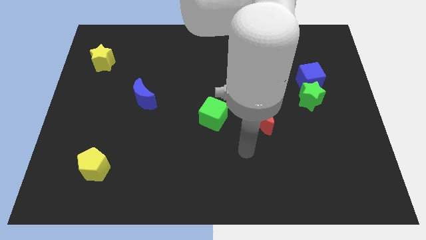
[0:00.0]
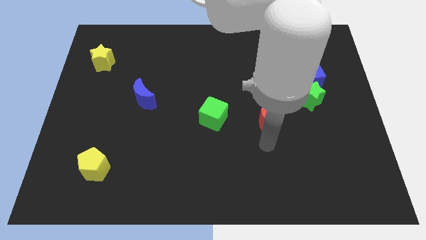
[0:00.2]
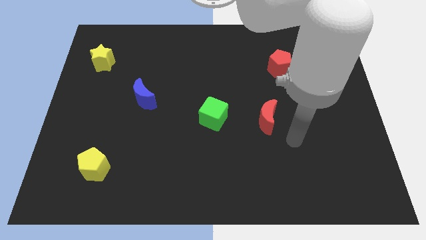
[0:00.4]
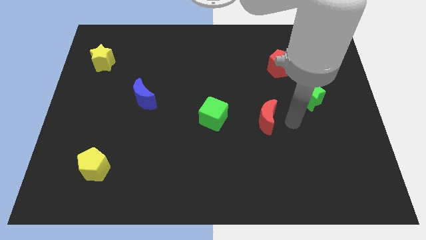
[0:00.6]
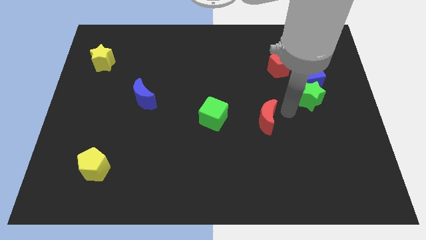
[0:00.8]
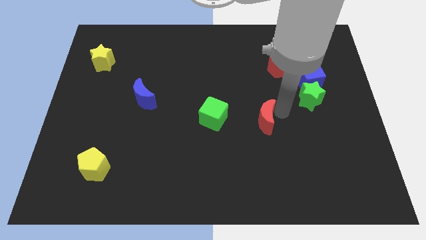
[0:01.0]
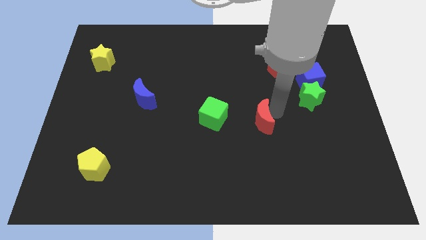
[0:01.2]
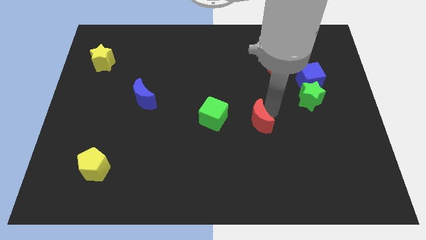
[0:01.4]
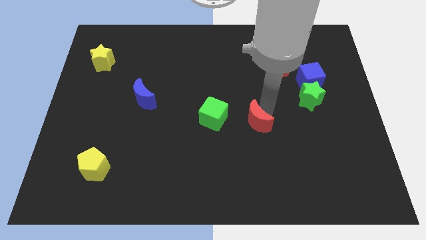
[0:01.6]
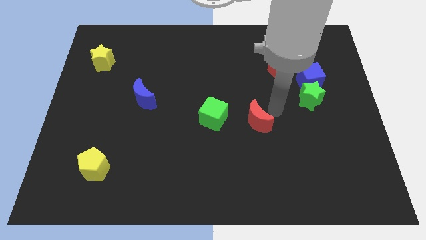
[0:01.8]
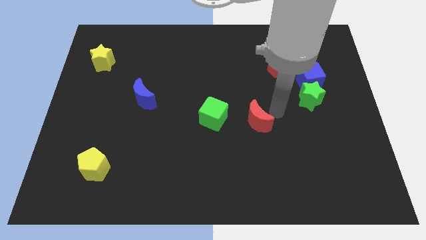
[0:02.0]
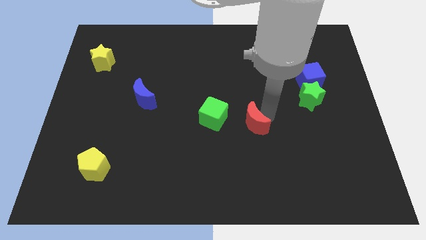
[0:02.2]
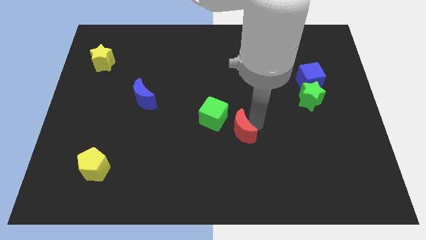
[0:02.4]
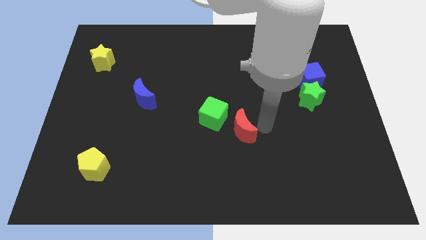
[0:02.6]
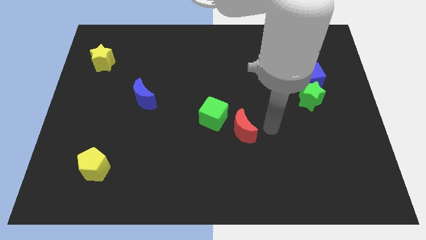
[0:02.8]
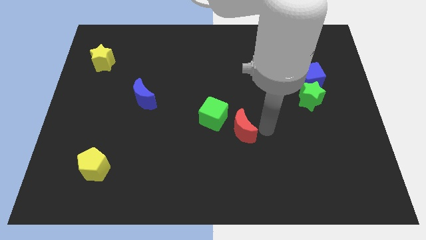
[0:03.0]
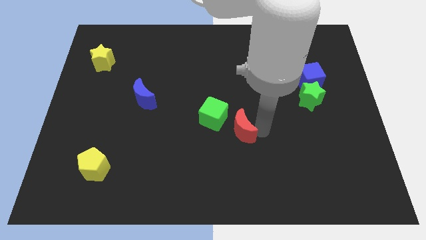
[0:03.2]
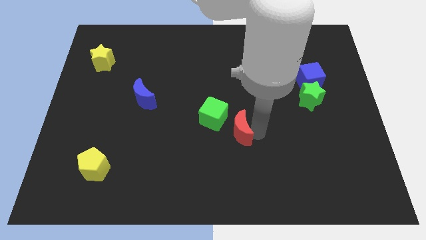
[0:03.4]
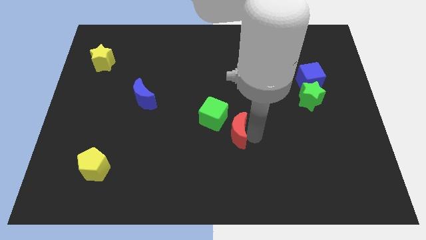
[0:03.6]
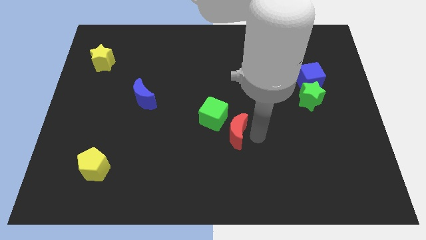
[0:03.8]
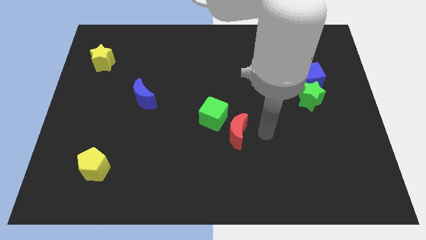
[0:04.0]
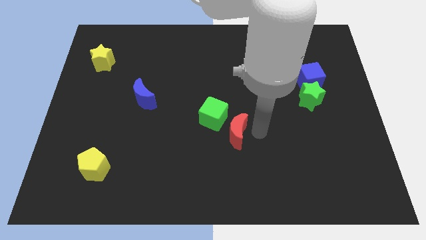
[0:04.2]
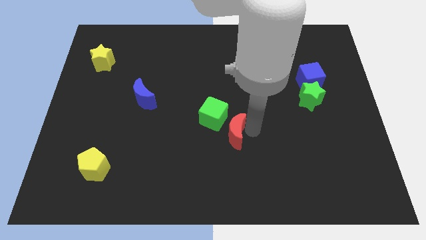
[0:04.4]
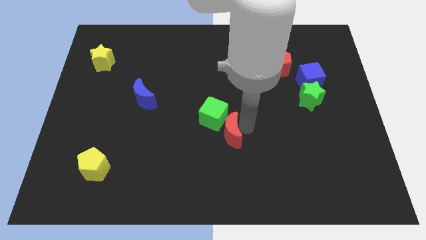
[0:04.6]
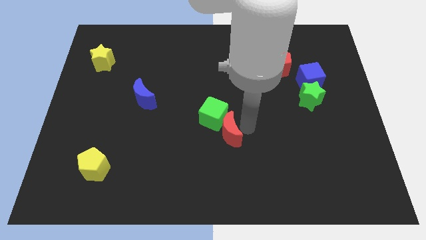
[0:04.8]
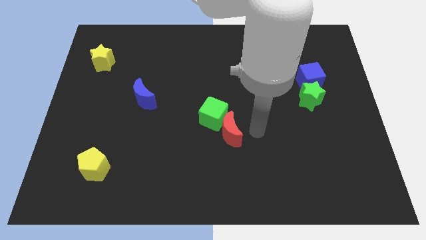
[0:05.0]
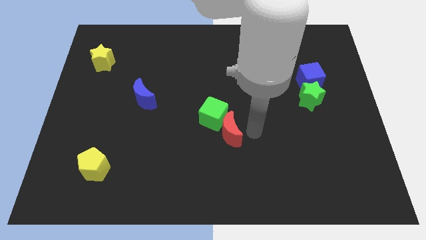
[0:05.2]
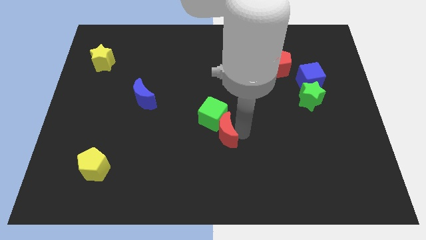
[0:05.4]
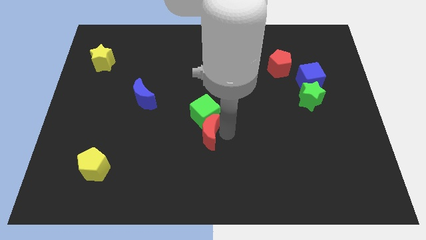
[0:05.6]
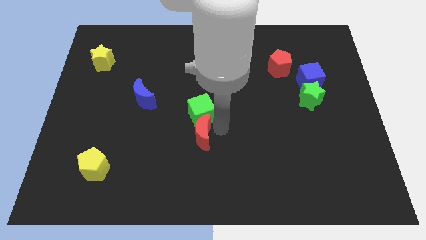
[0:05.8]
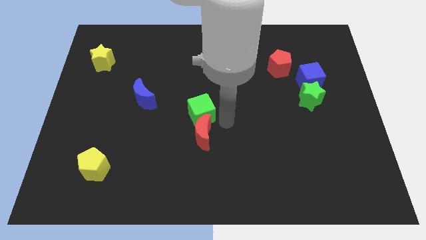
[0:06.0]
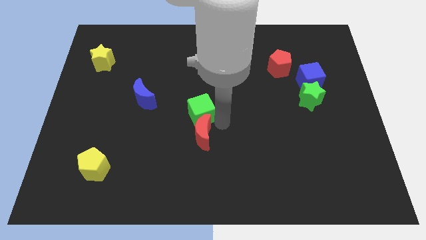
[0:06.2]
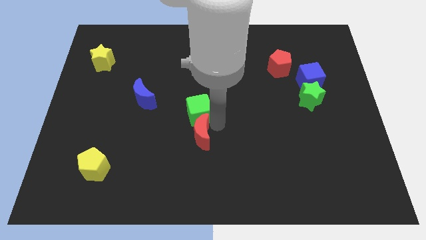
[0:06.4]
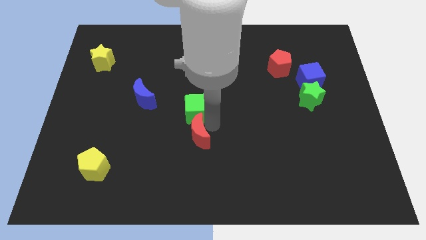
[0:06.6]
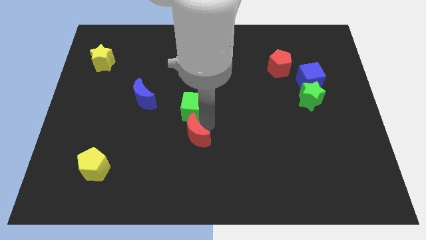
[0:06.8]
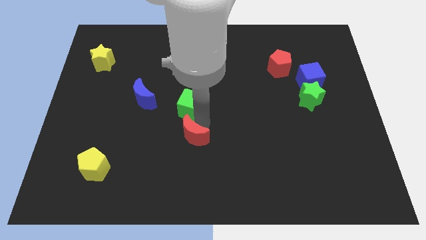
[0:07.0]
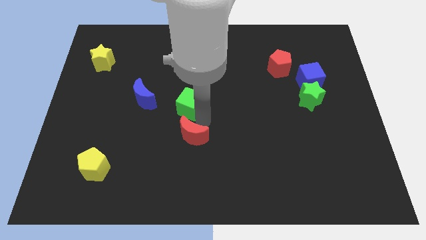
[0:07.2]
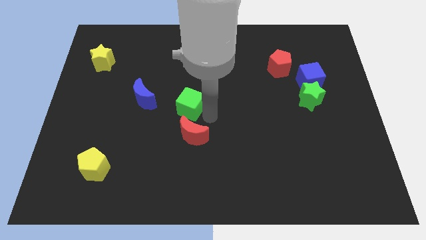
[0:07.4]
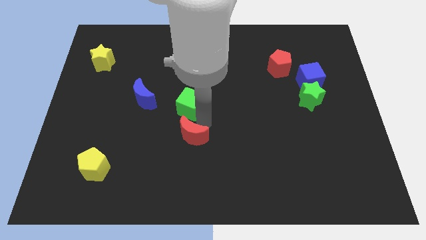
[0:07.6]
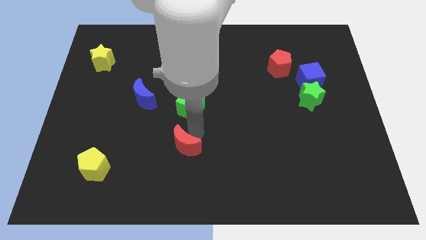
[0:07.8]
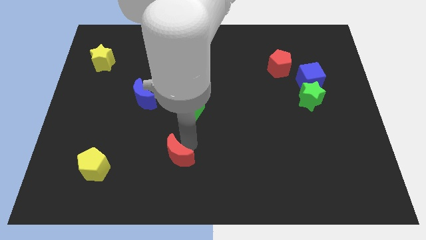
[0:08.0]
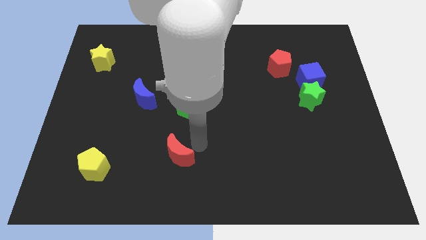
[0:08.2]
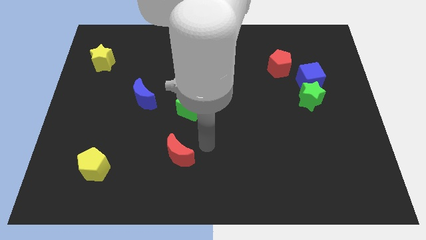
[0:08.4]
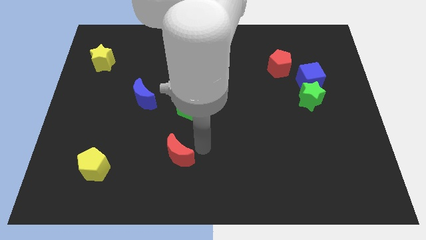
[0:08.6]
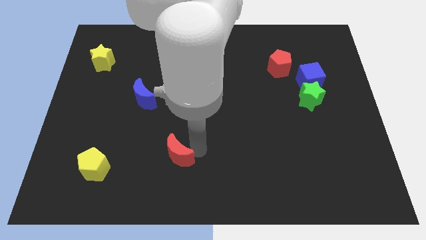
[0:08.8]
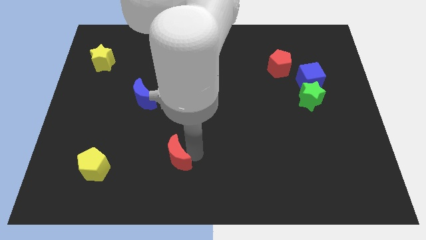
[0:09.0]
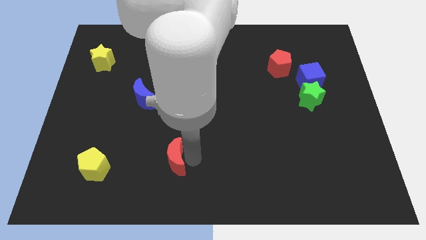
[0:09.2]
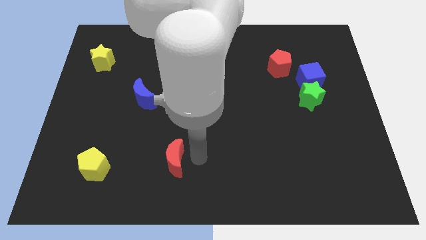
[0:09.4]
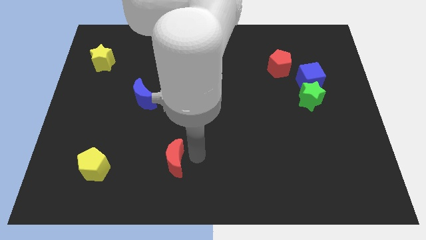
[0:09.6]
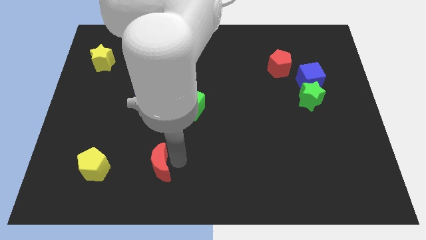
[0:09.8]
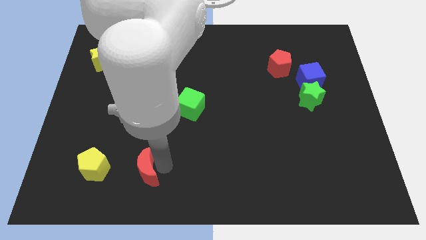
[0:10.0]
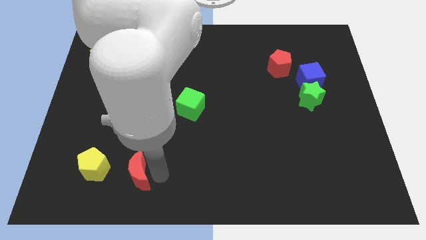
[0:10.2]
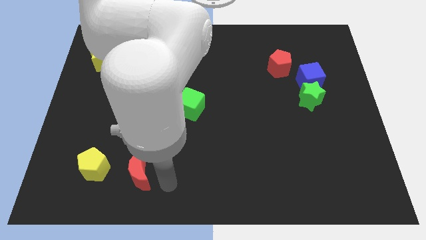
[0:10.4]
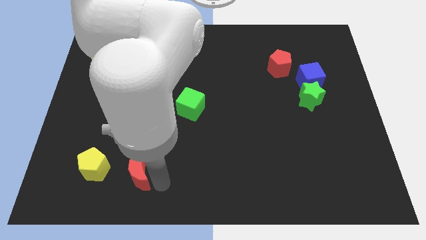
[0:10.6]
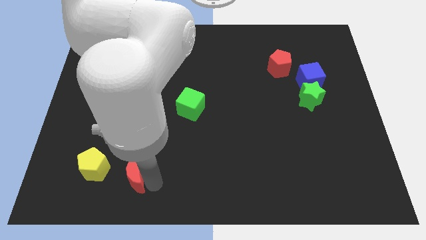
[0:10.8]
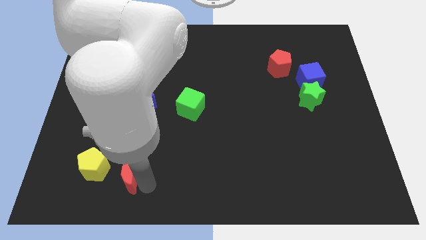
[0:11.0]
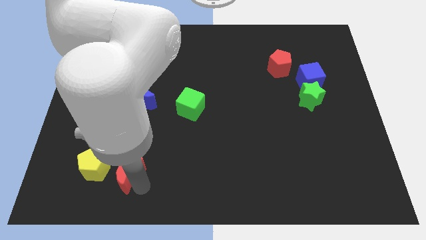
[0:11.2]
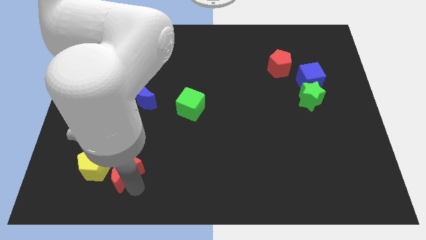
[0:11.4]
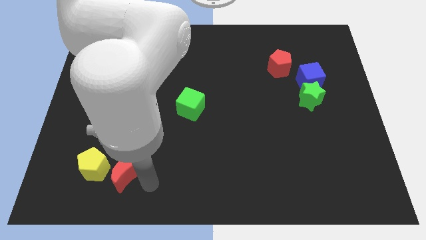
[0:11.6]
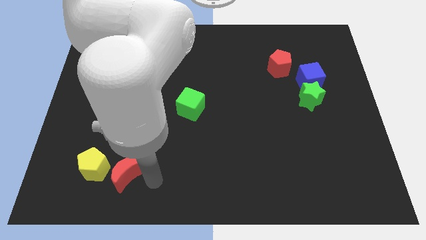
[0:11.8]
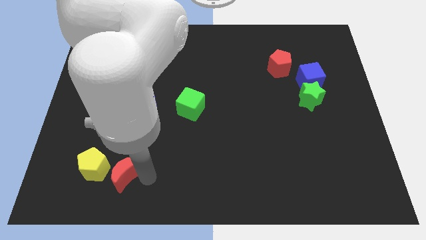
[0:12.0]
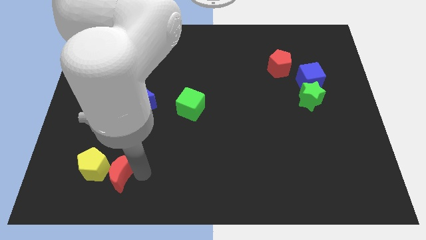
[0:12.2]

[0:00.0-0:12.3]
slide the red moon next to the yellow pentagon

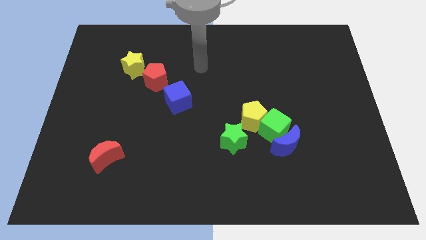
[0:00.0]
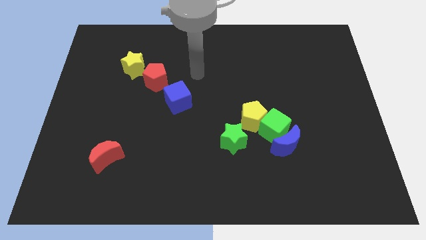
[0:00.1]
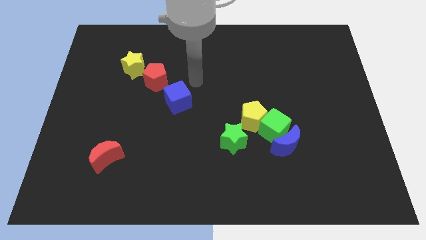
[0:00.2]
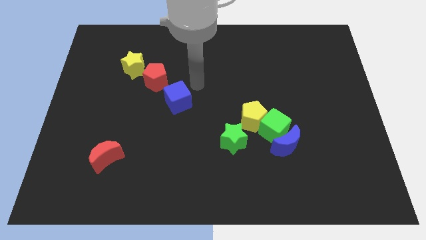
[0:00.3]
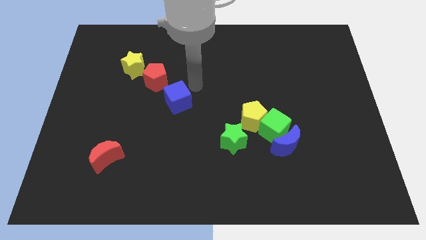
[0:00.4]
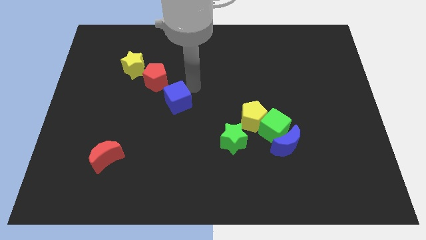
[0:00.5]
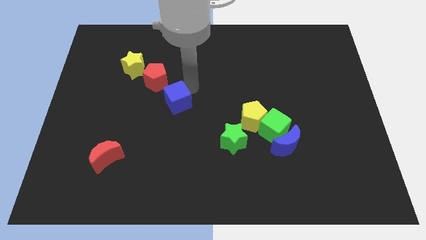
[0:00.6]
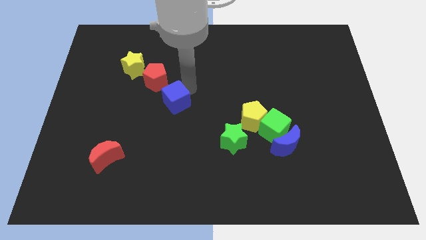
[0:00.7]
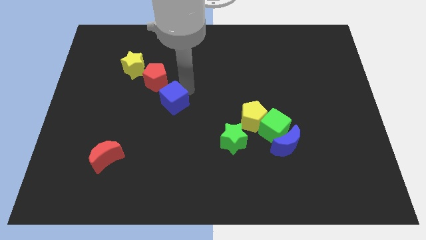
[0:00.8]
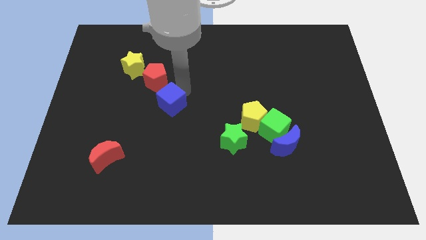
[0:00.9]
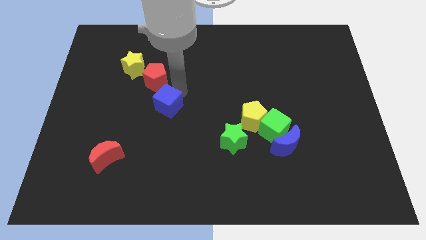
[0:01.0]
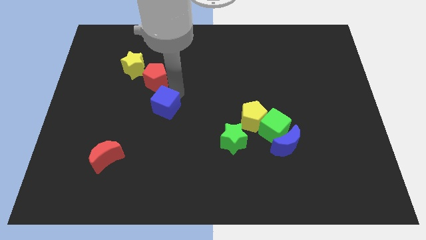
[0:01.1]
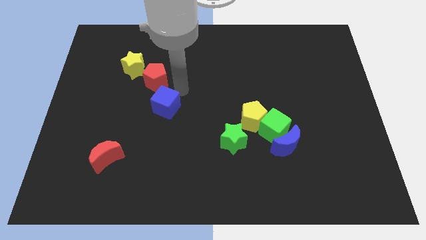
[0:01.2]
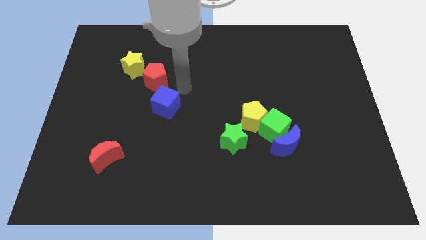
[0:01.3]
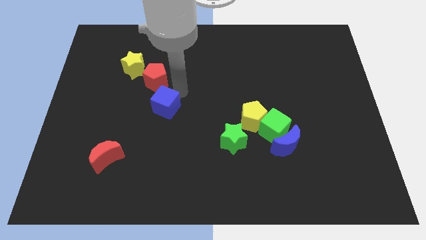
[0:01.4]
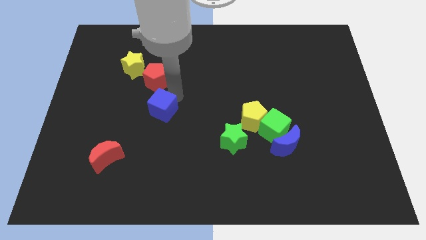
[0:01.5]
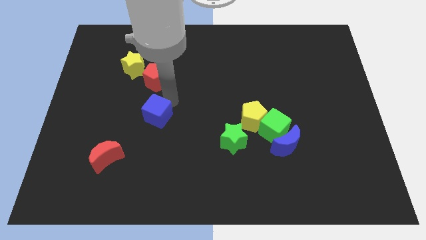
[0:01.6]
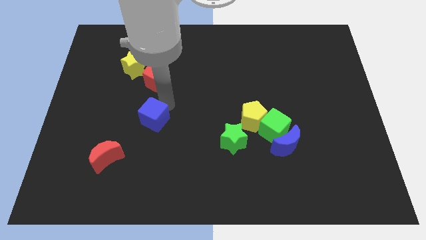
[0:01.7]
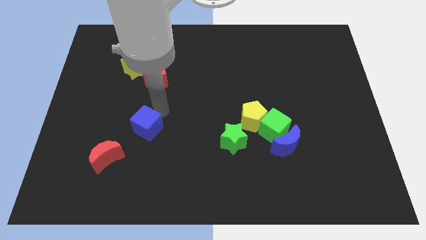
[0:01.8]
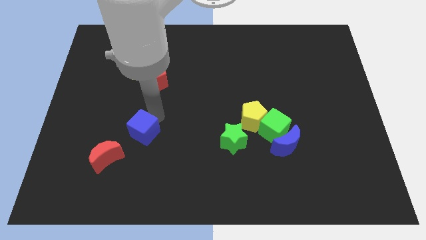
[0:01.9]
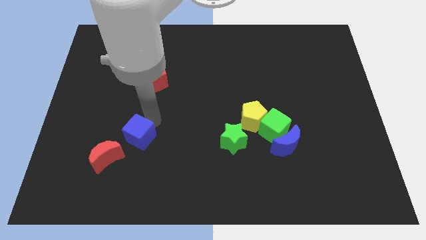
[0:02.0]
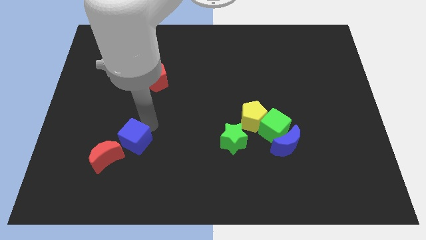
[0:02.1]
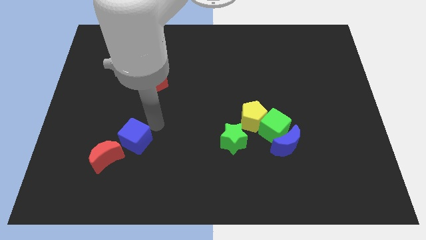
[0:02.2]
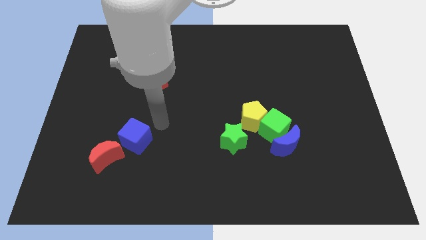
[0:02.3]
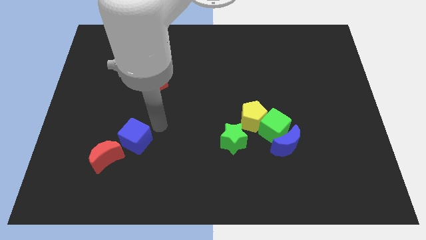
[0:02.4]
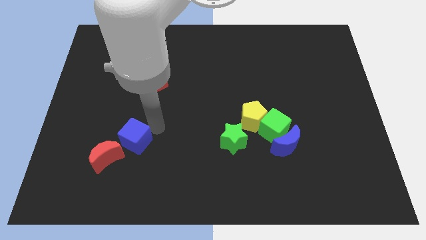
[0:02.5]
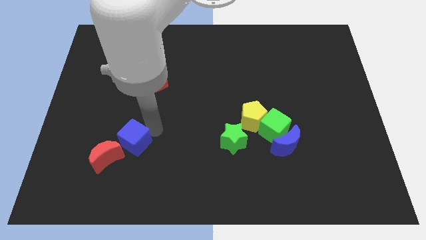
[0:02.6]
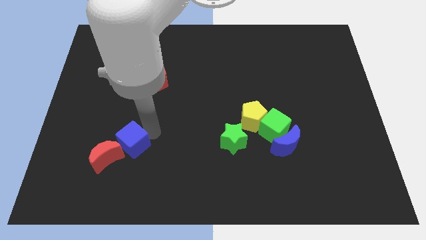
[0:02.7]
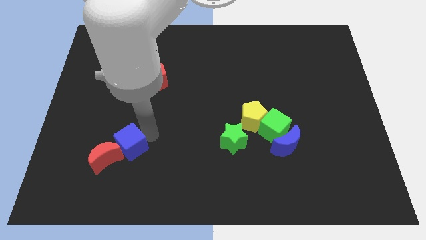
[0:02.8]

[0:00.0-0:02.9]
slide the blue cube next to the red moon
